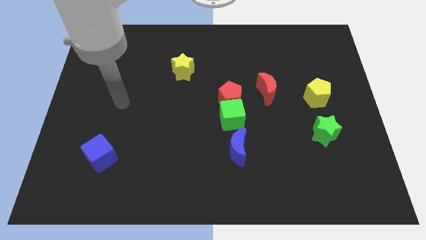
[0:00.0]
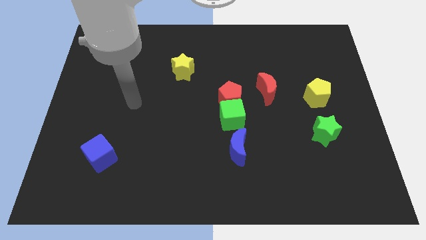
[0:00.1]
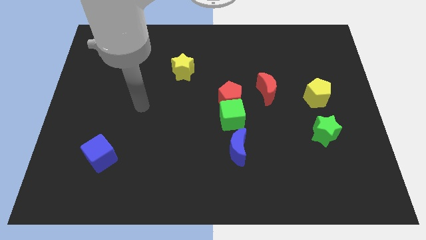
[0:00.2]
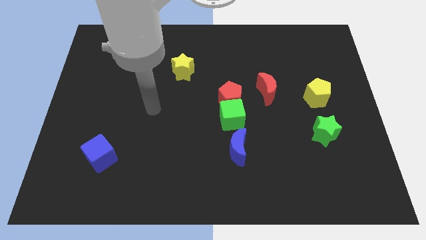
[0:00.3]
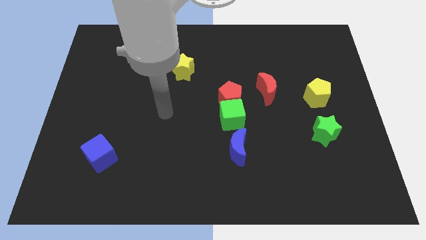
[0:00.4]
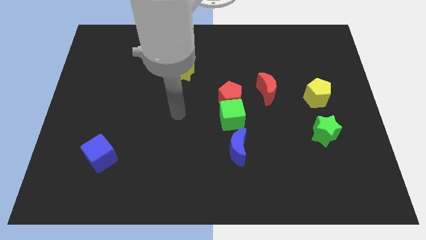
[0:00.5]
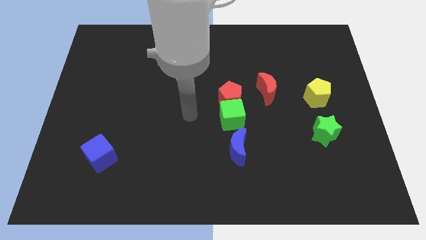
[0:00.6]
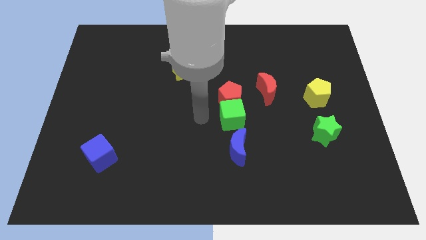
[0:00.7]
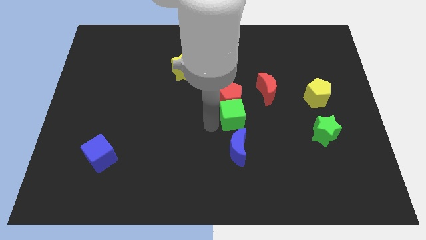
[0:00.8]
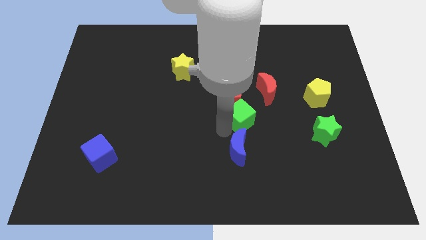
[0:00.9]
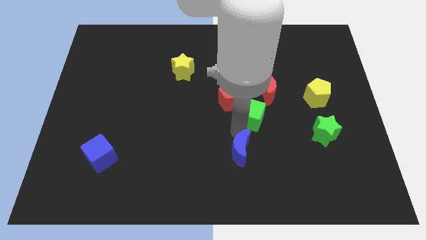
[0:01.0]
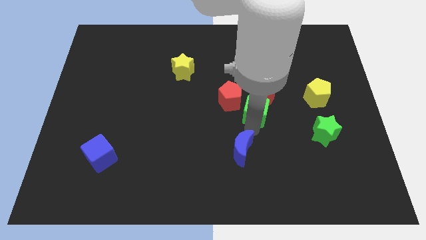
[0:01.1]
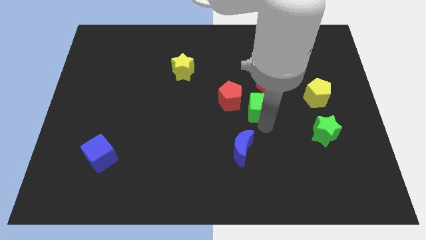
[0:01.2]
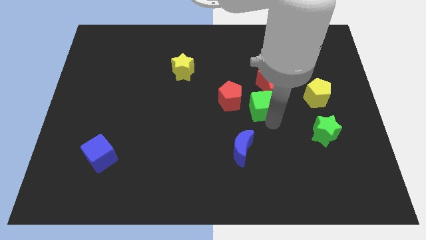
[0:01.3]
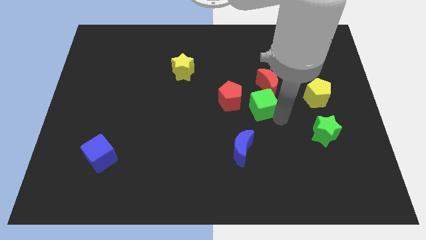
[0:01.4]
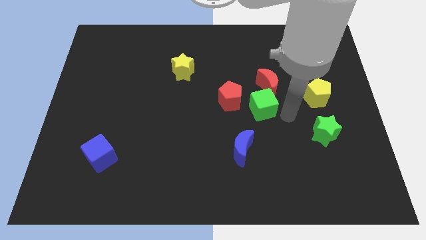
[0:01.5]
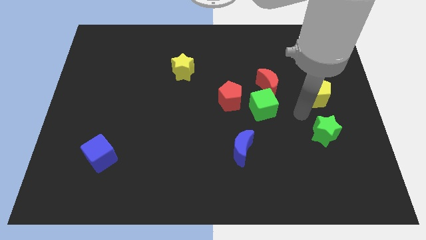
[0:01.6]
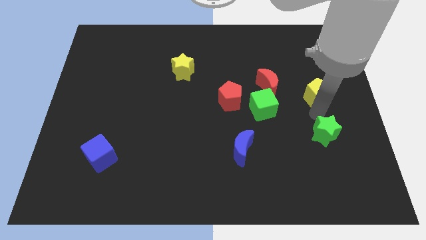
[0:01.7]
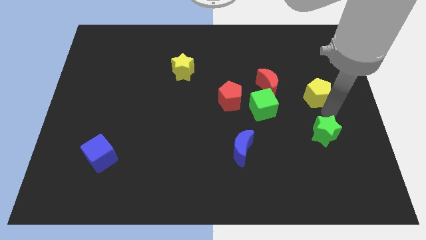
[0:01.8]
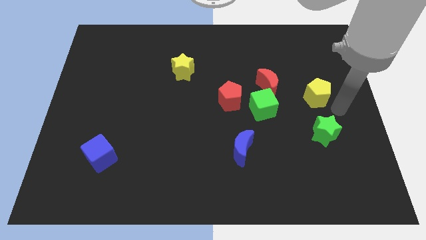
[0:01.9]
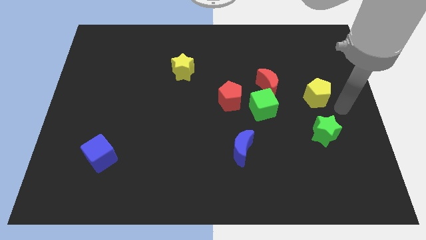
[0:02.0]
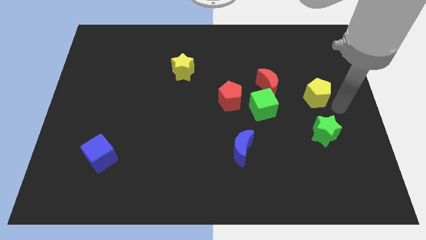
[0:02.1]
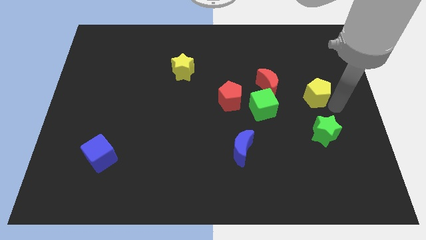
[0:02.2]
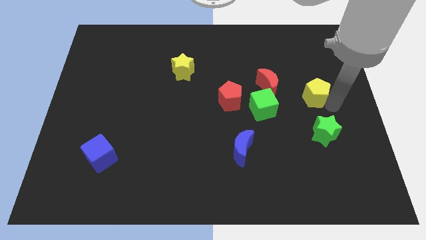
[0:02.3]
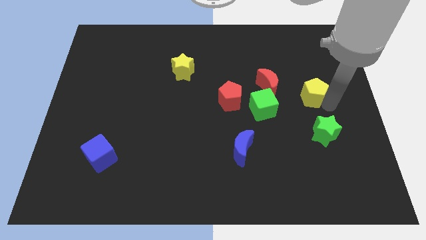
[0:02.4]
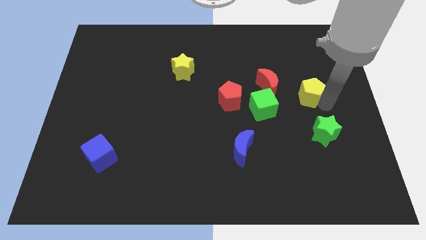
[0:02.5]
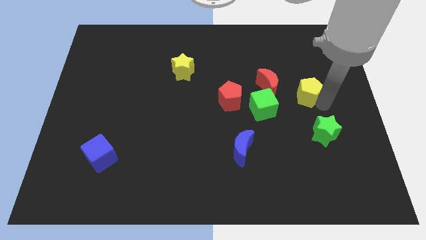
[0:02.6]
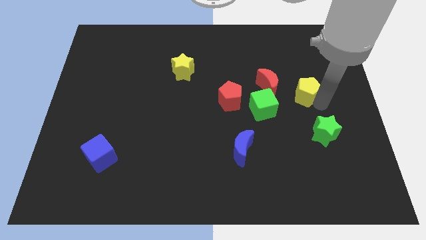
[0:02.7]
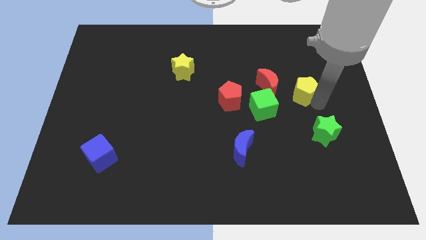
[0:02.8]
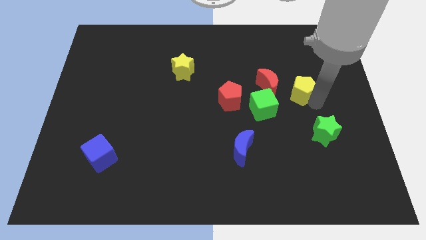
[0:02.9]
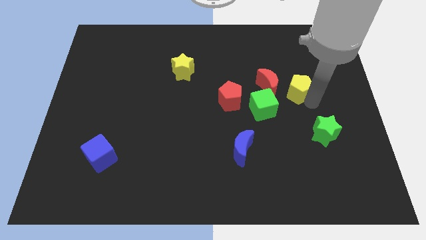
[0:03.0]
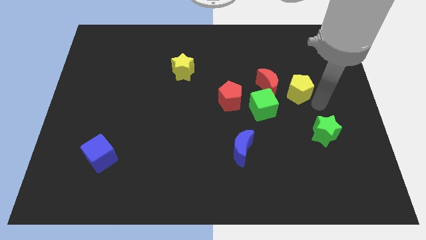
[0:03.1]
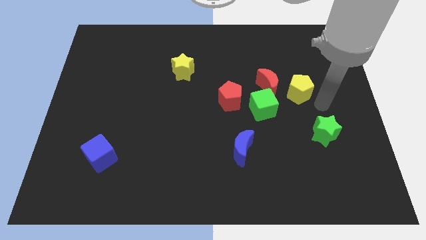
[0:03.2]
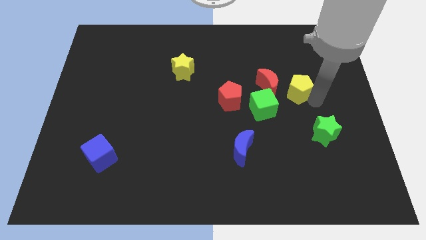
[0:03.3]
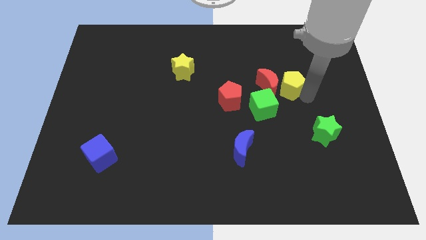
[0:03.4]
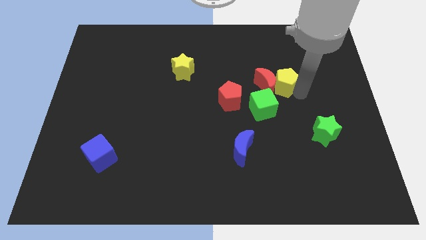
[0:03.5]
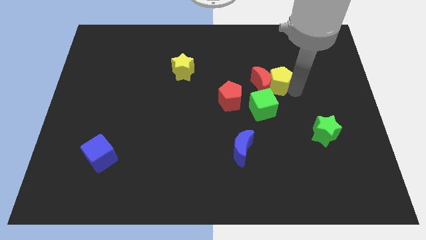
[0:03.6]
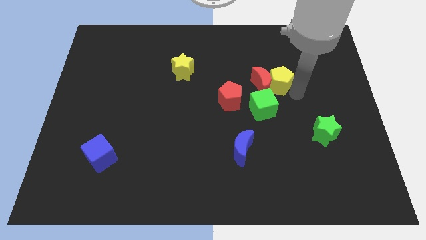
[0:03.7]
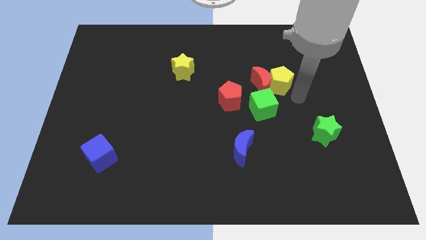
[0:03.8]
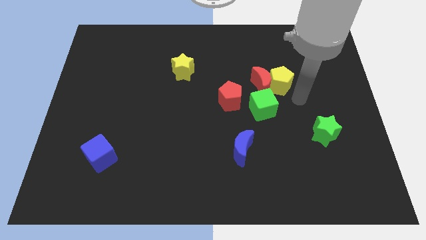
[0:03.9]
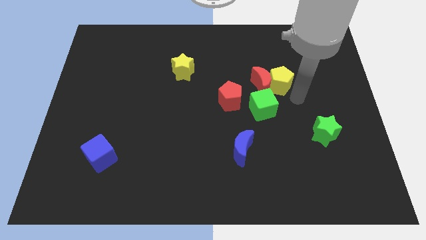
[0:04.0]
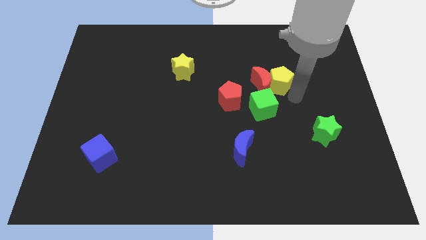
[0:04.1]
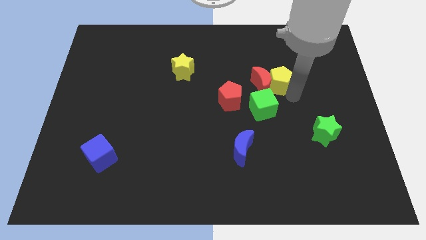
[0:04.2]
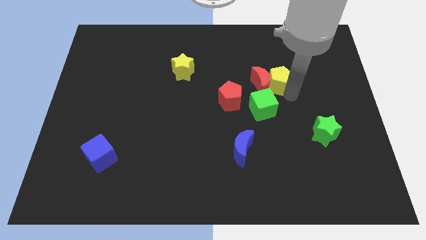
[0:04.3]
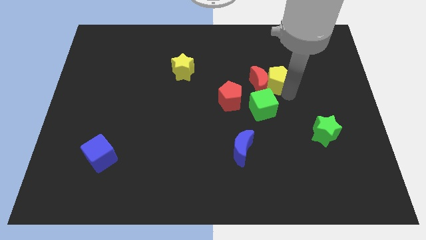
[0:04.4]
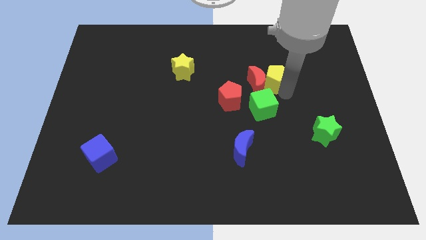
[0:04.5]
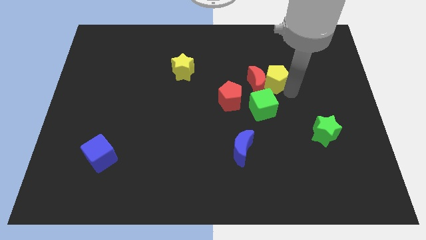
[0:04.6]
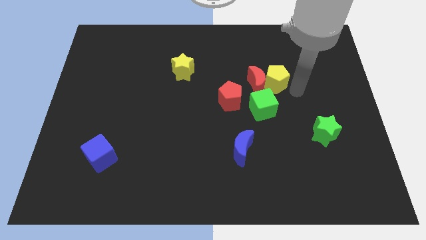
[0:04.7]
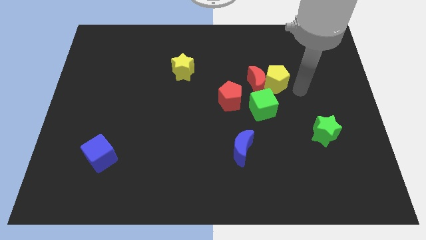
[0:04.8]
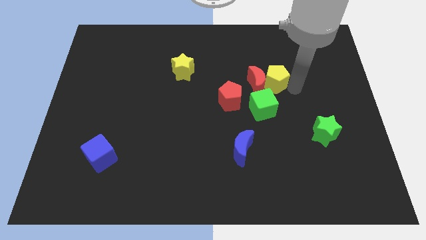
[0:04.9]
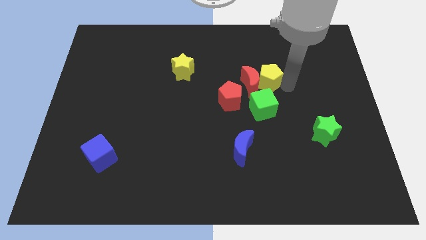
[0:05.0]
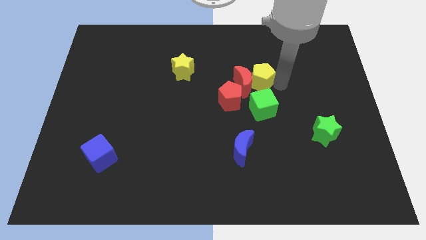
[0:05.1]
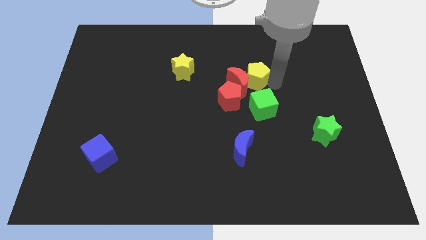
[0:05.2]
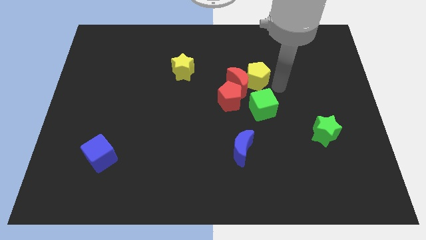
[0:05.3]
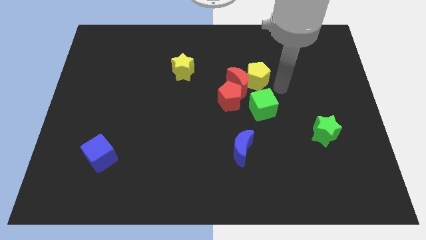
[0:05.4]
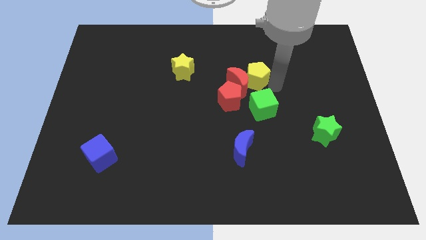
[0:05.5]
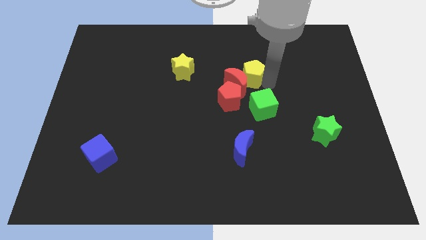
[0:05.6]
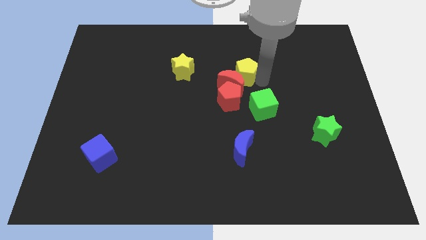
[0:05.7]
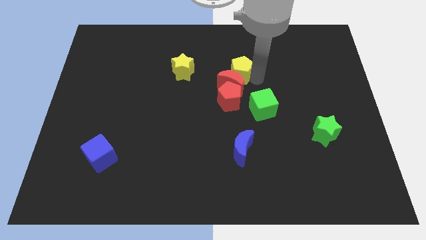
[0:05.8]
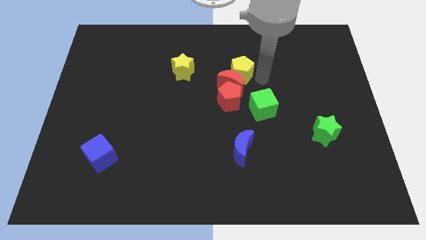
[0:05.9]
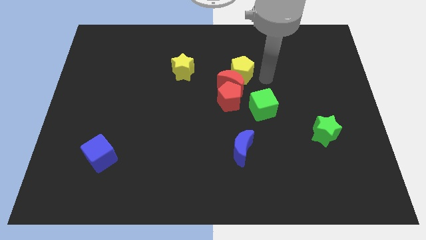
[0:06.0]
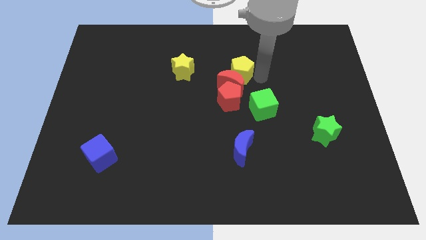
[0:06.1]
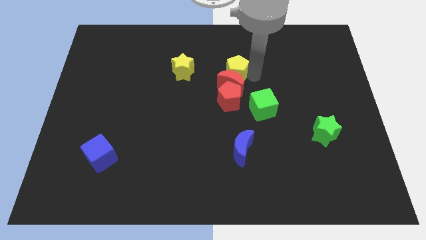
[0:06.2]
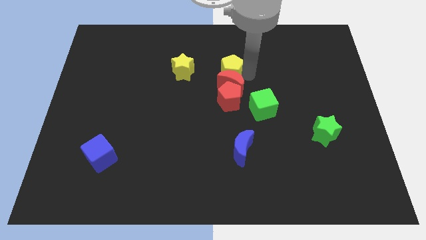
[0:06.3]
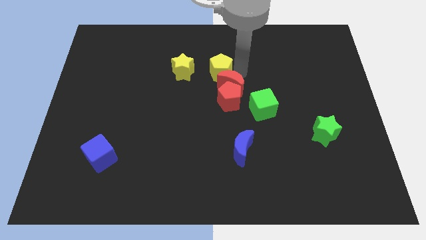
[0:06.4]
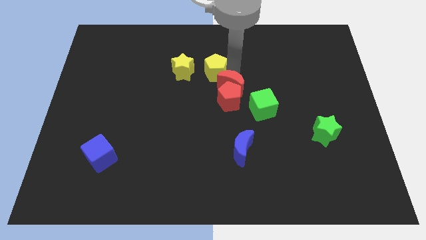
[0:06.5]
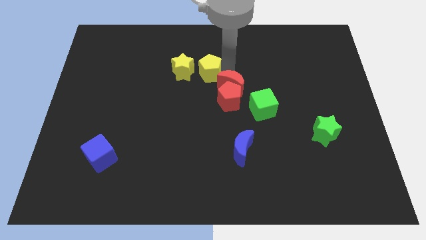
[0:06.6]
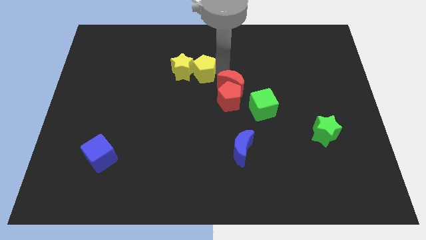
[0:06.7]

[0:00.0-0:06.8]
slide the yellow pentagon close to the yellow star

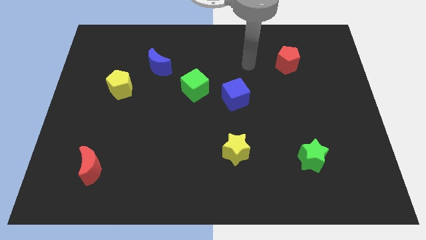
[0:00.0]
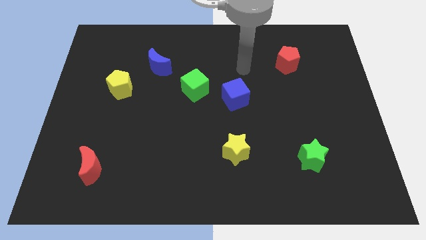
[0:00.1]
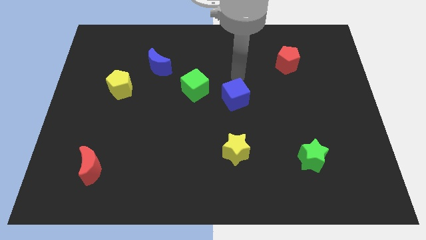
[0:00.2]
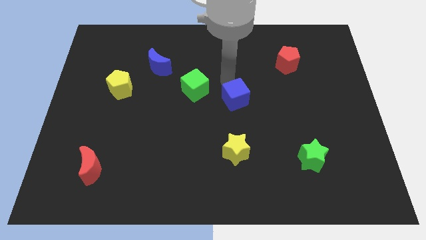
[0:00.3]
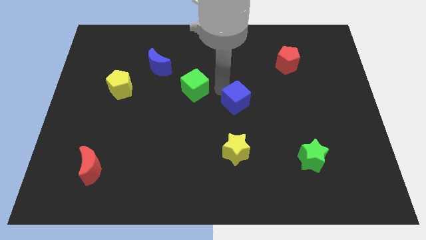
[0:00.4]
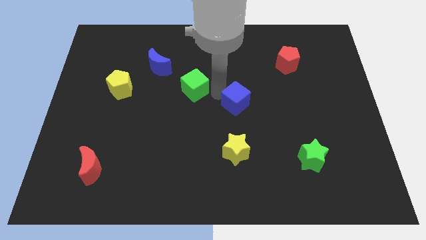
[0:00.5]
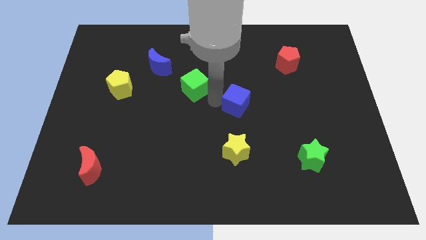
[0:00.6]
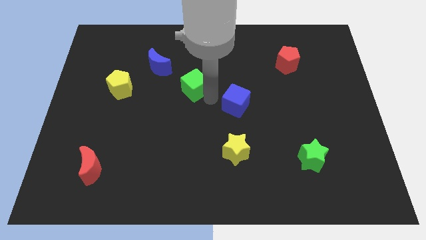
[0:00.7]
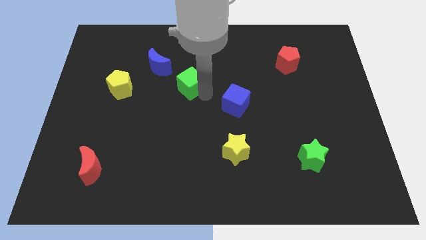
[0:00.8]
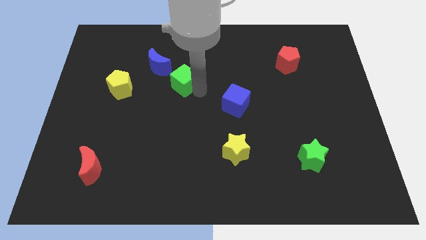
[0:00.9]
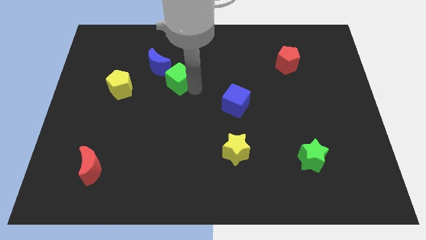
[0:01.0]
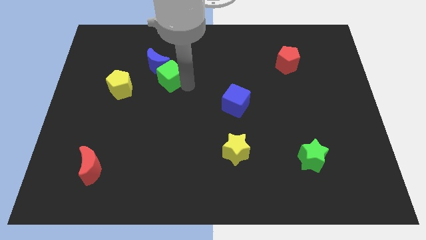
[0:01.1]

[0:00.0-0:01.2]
slide the green cube towards the blue moon

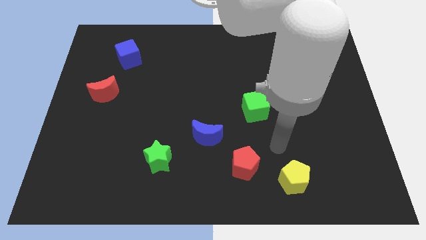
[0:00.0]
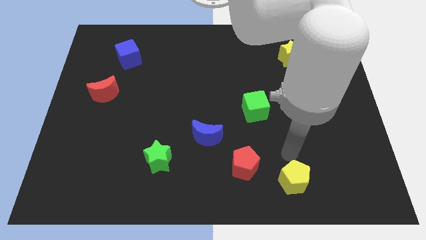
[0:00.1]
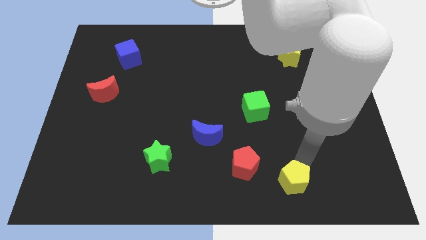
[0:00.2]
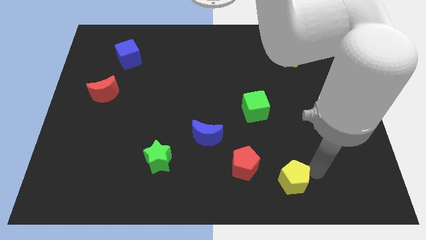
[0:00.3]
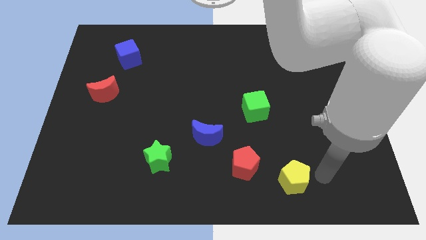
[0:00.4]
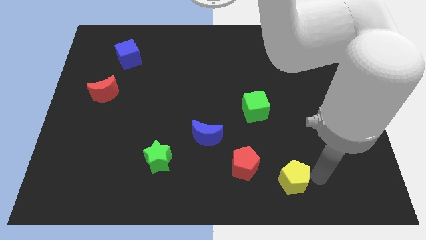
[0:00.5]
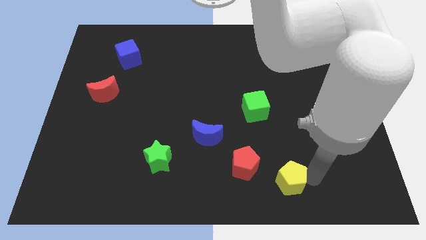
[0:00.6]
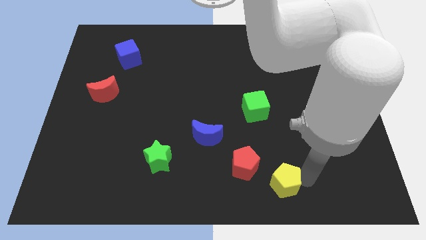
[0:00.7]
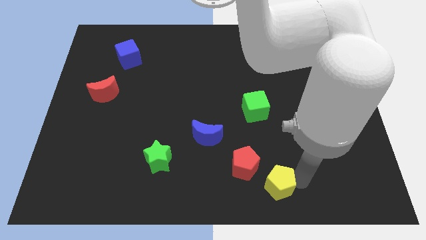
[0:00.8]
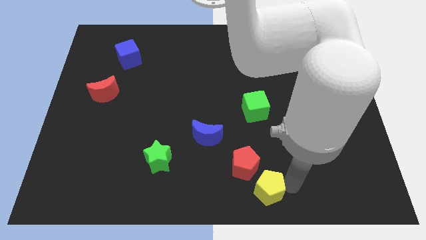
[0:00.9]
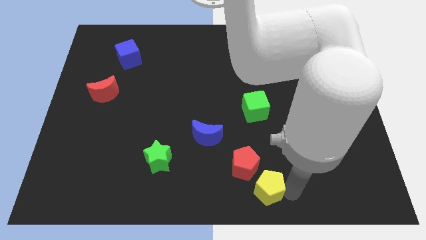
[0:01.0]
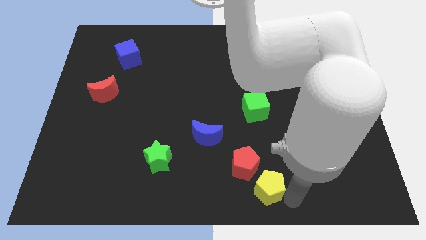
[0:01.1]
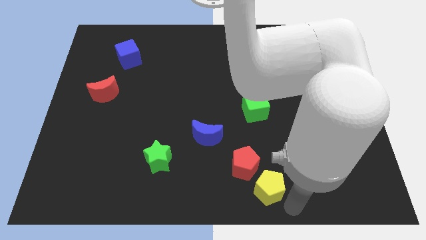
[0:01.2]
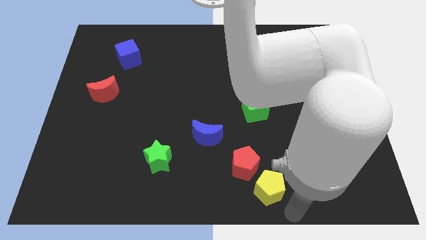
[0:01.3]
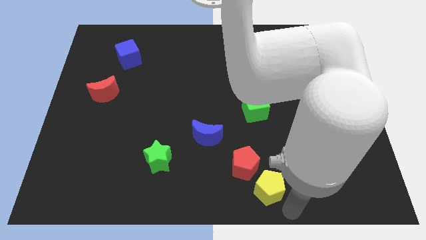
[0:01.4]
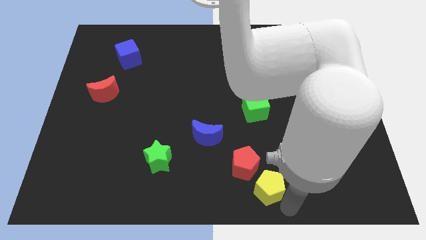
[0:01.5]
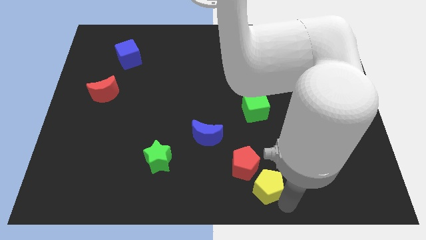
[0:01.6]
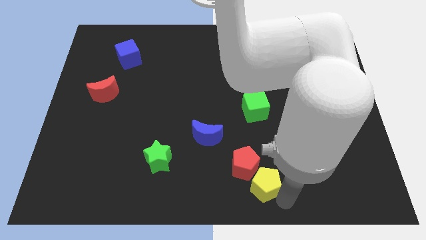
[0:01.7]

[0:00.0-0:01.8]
slide the yellow pentagon towards the red pentagon
